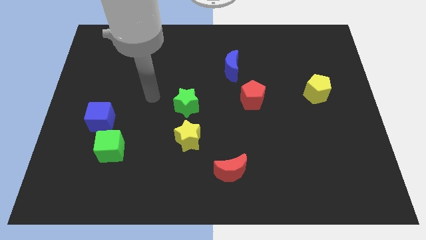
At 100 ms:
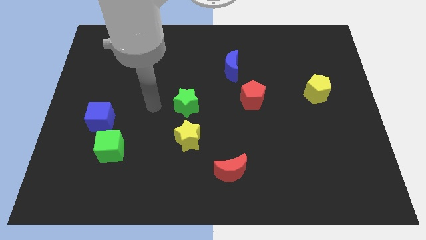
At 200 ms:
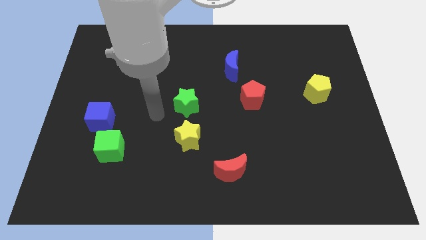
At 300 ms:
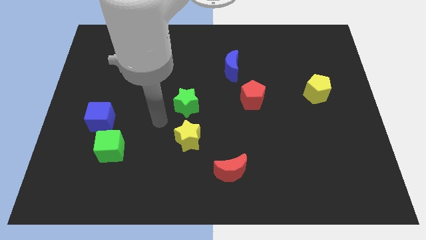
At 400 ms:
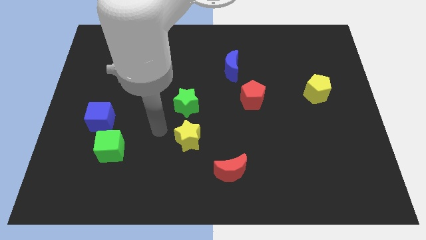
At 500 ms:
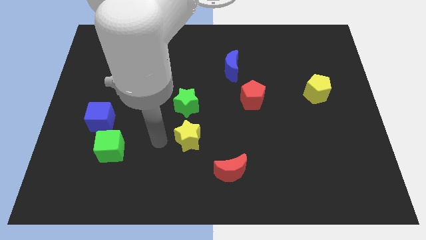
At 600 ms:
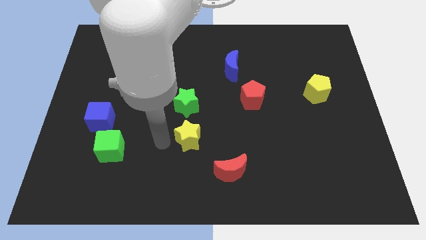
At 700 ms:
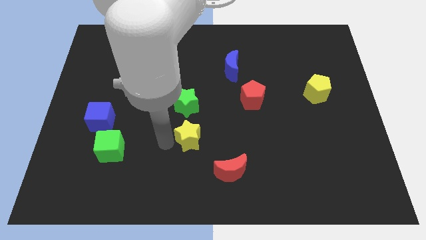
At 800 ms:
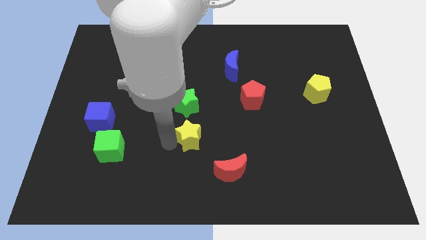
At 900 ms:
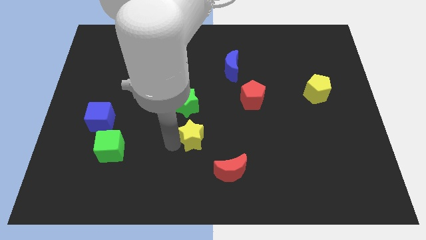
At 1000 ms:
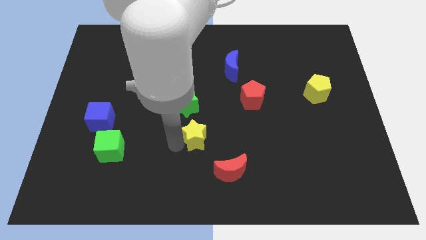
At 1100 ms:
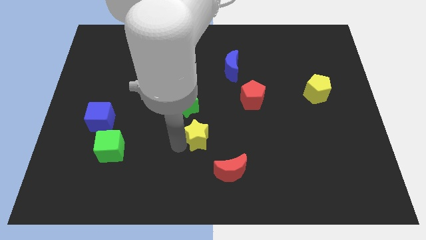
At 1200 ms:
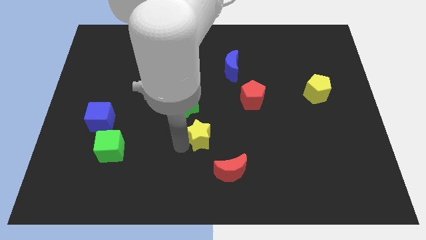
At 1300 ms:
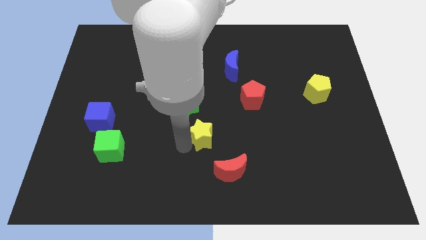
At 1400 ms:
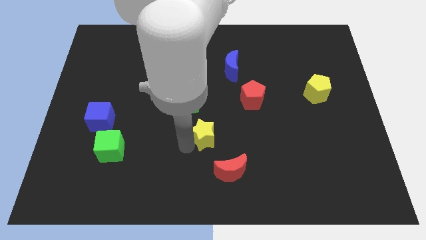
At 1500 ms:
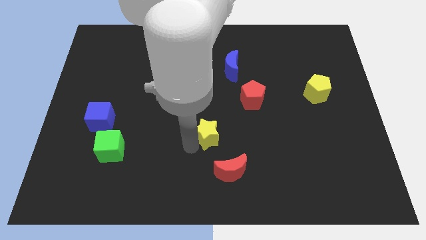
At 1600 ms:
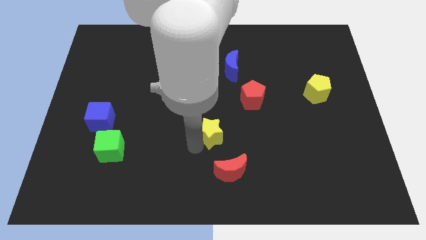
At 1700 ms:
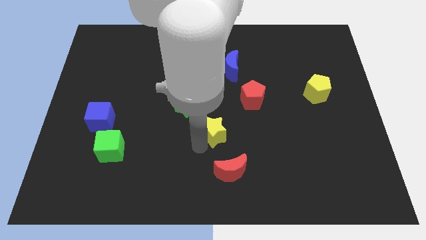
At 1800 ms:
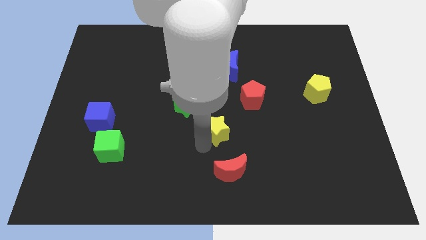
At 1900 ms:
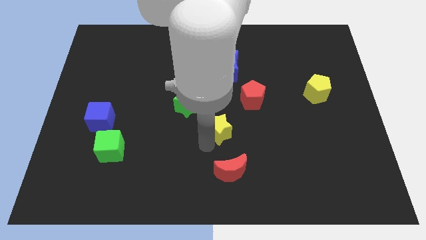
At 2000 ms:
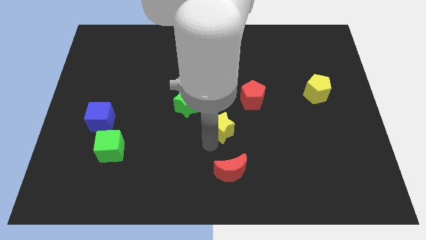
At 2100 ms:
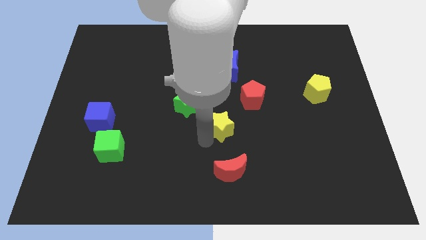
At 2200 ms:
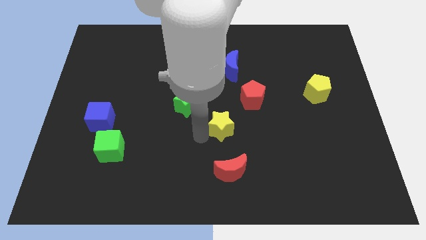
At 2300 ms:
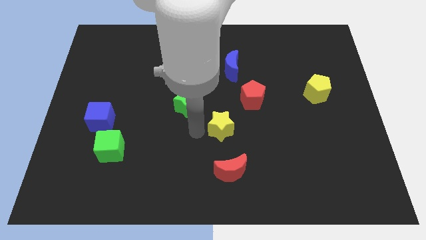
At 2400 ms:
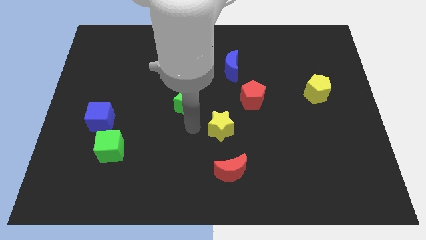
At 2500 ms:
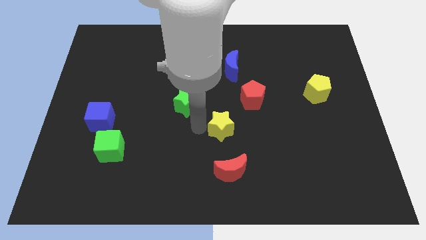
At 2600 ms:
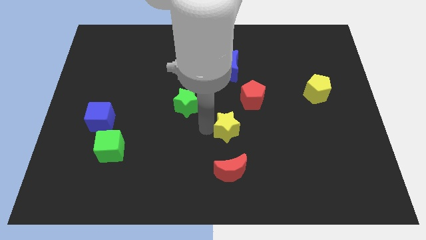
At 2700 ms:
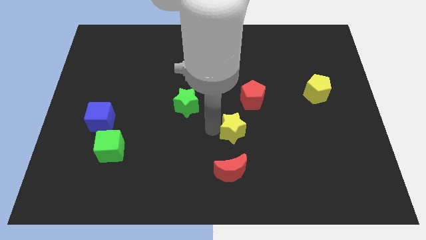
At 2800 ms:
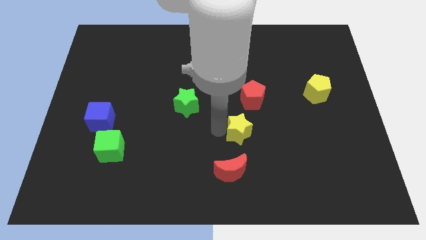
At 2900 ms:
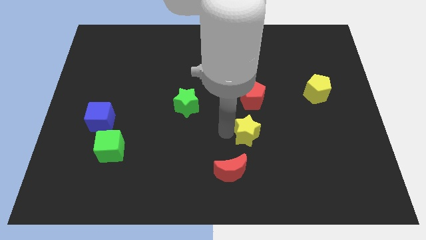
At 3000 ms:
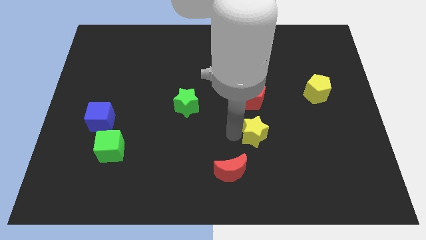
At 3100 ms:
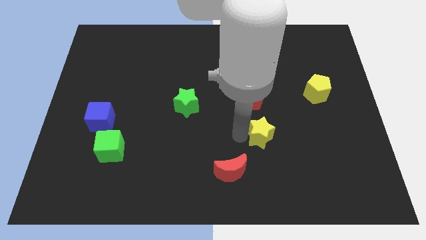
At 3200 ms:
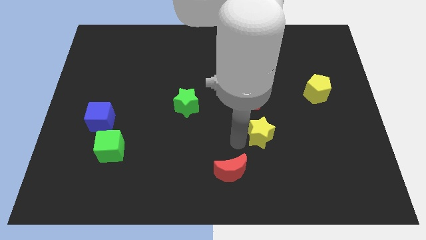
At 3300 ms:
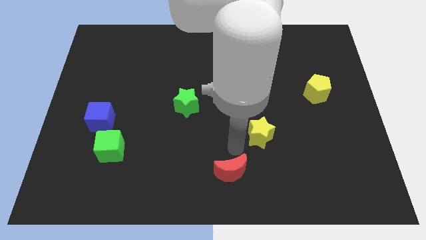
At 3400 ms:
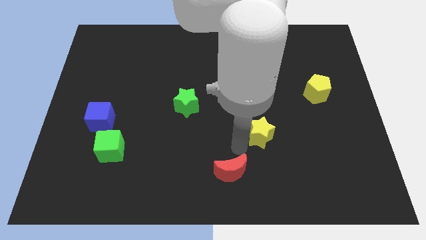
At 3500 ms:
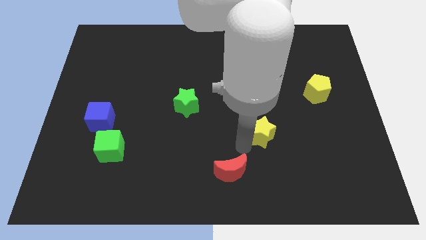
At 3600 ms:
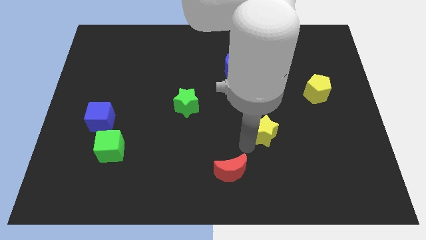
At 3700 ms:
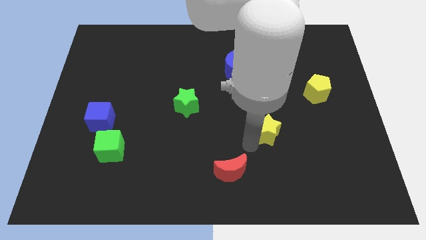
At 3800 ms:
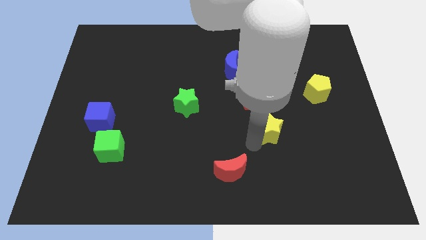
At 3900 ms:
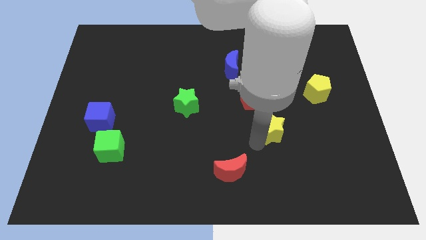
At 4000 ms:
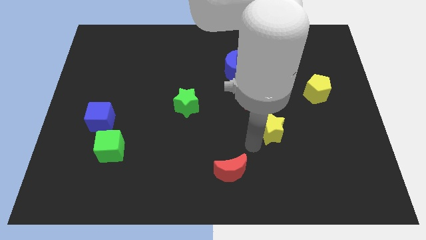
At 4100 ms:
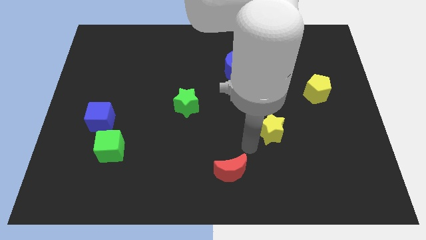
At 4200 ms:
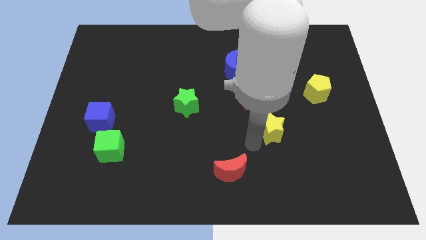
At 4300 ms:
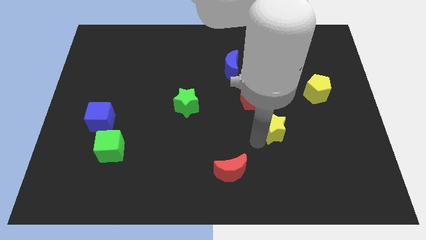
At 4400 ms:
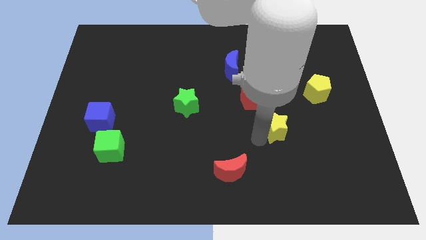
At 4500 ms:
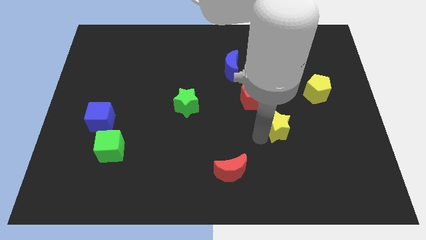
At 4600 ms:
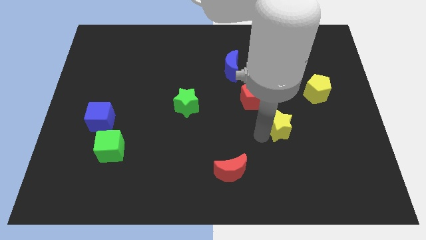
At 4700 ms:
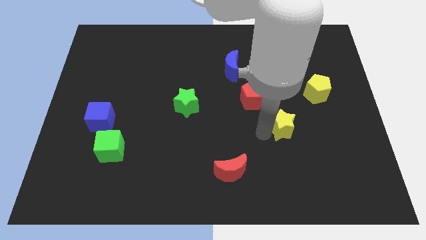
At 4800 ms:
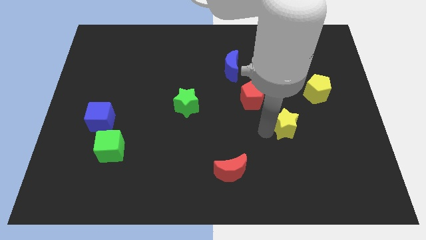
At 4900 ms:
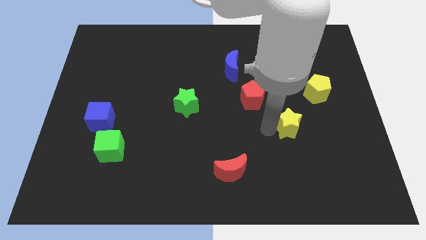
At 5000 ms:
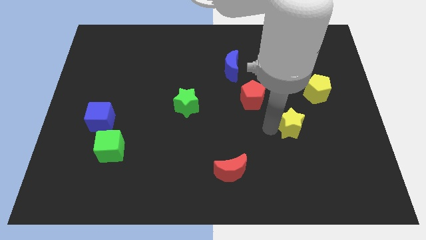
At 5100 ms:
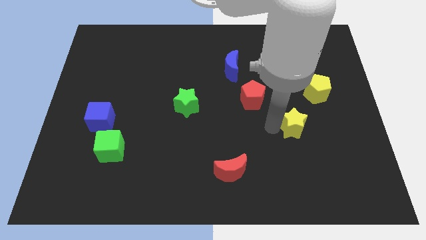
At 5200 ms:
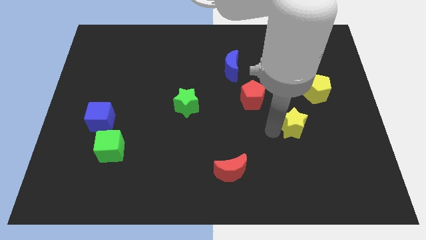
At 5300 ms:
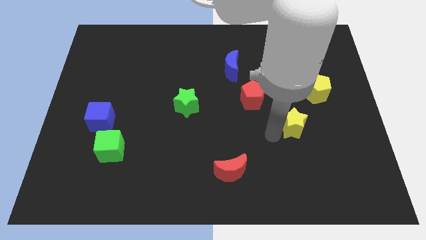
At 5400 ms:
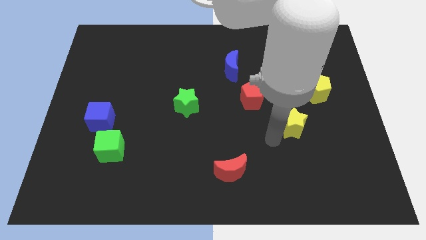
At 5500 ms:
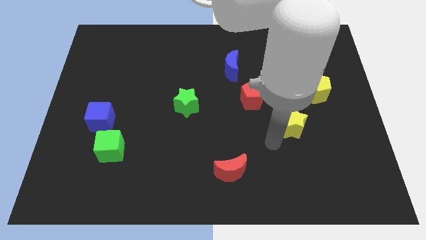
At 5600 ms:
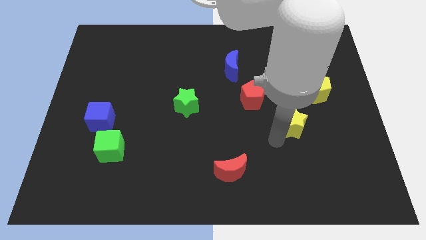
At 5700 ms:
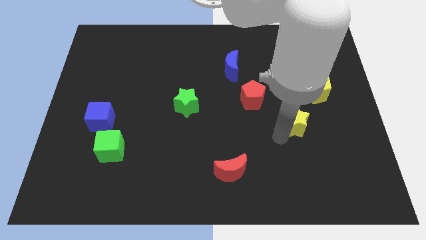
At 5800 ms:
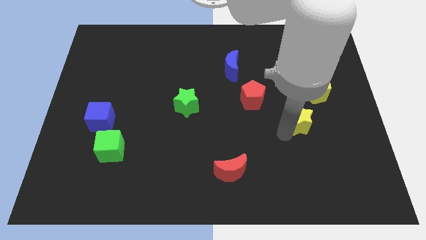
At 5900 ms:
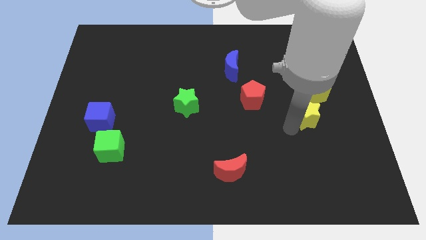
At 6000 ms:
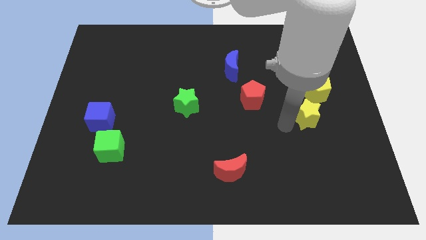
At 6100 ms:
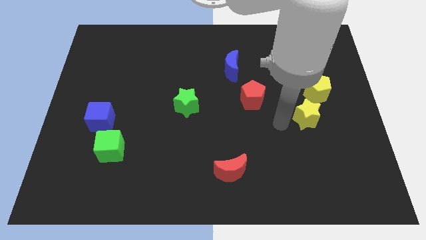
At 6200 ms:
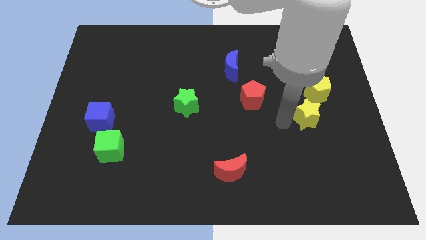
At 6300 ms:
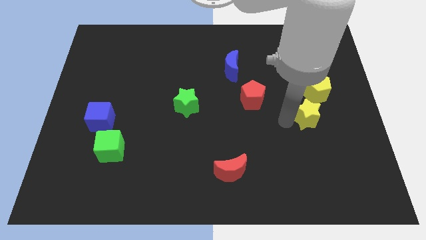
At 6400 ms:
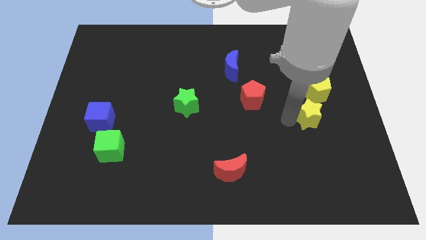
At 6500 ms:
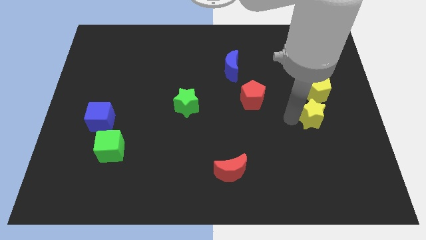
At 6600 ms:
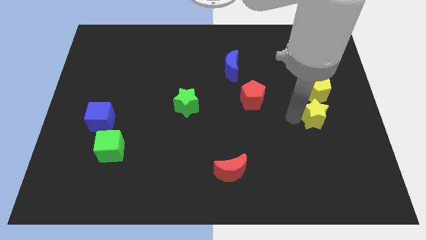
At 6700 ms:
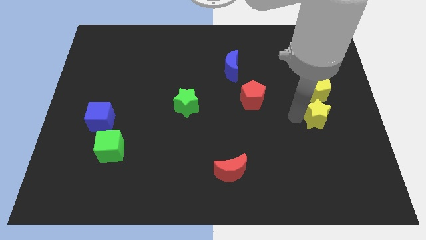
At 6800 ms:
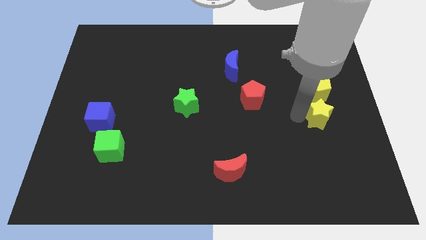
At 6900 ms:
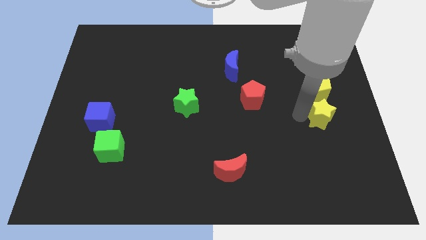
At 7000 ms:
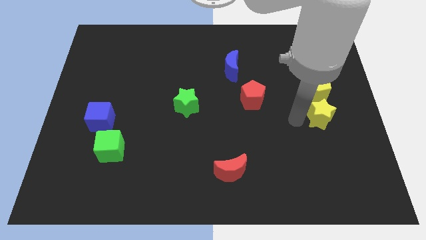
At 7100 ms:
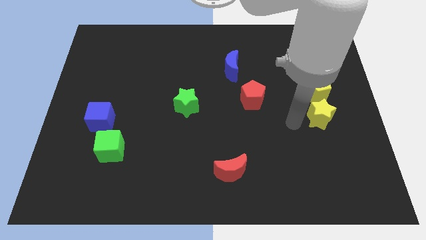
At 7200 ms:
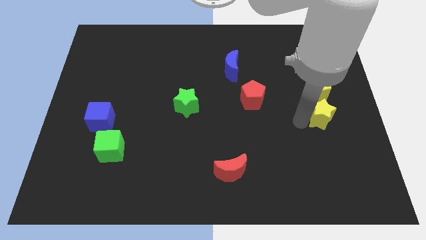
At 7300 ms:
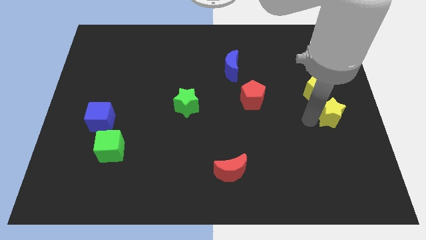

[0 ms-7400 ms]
put the yellow star to the right side
